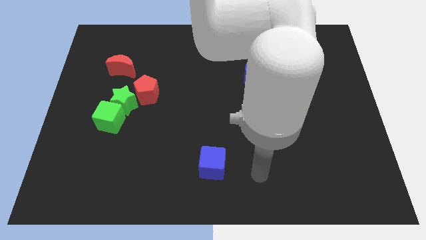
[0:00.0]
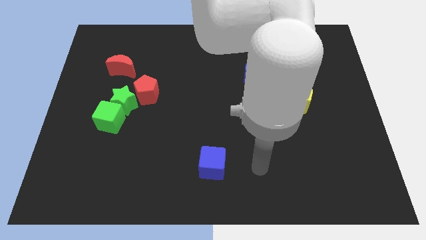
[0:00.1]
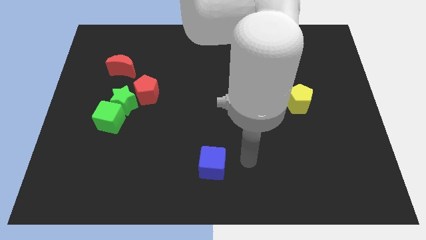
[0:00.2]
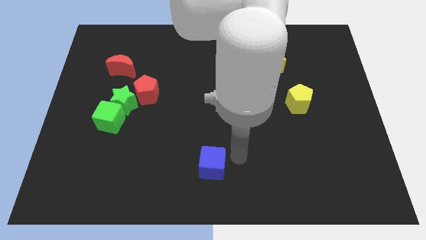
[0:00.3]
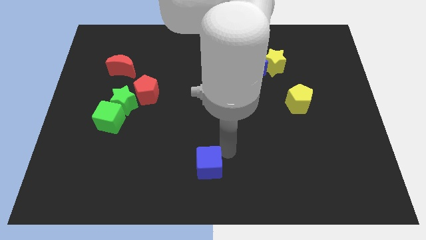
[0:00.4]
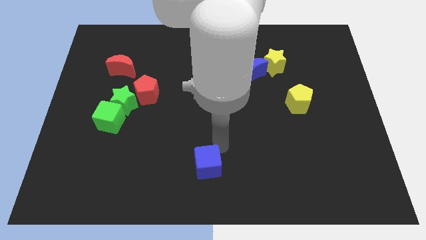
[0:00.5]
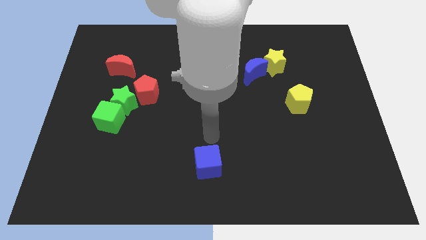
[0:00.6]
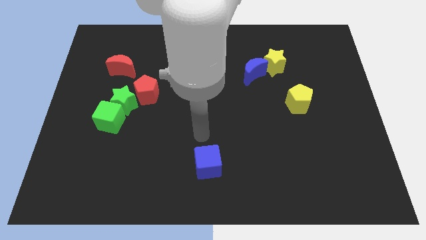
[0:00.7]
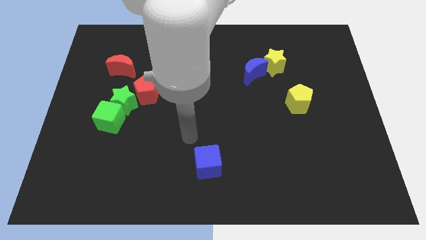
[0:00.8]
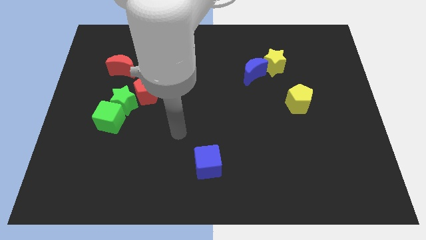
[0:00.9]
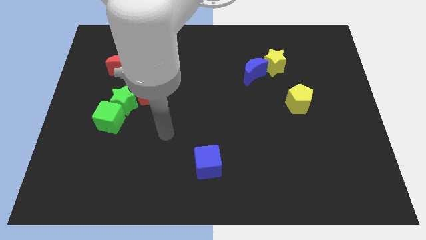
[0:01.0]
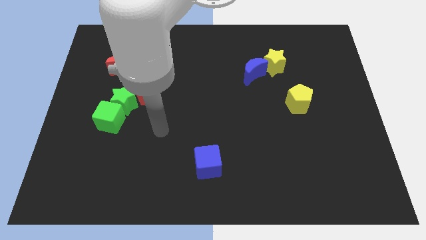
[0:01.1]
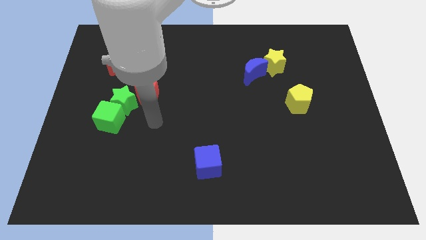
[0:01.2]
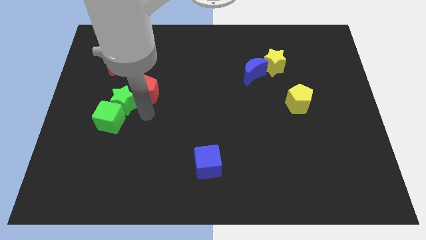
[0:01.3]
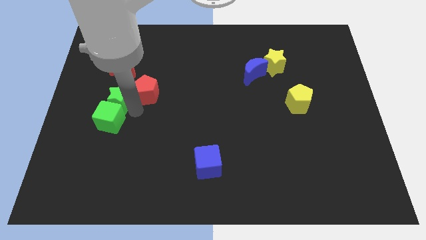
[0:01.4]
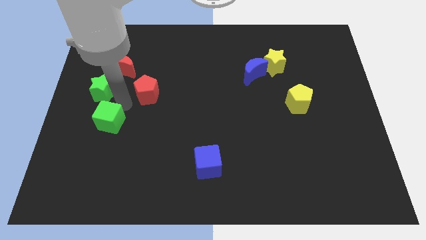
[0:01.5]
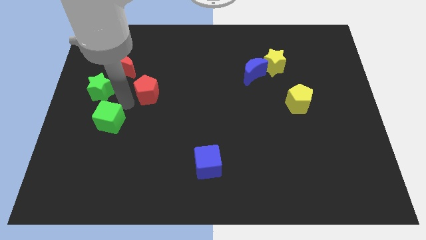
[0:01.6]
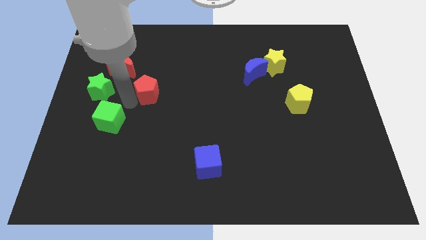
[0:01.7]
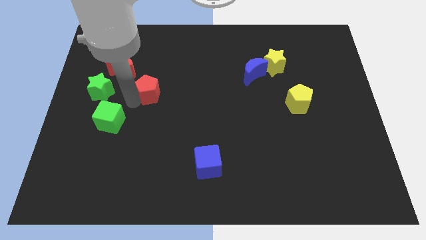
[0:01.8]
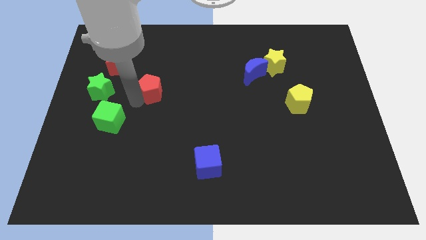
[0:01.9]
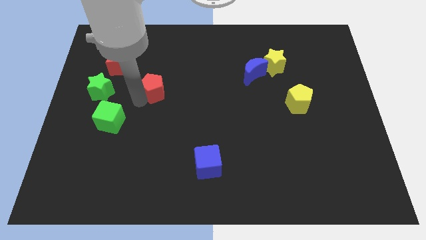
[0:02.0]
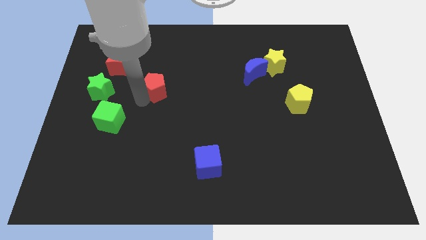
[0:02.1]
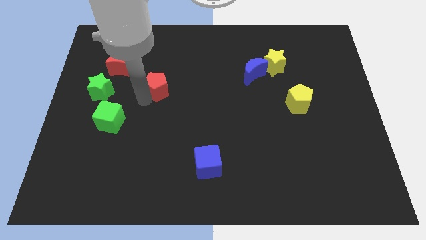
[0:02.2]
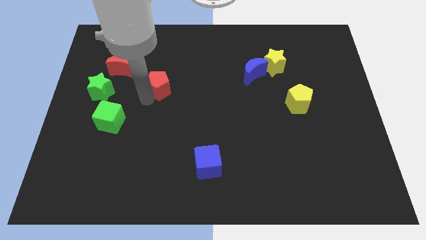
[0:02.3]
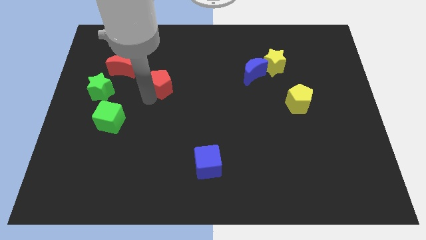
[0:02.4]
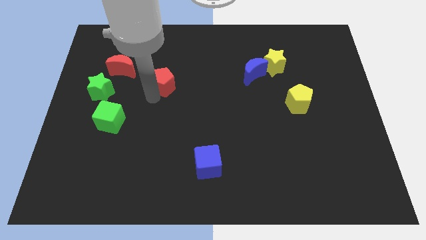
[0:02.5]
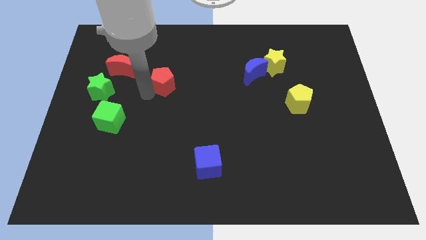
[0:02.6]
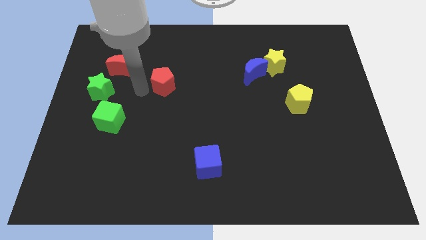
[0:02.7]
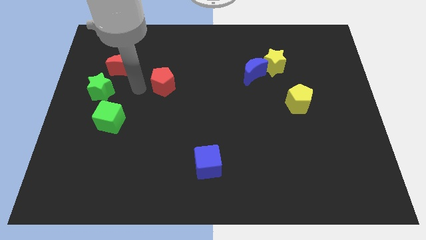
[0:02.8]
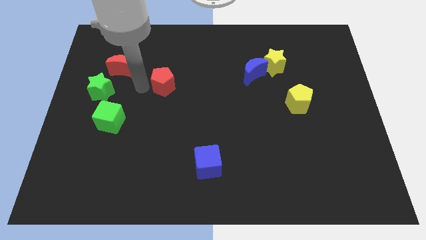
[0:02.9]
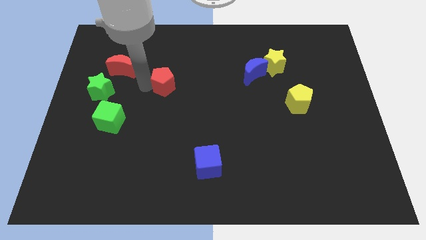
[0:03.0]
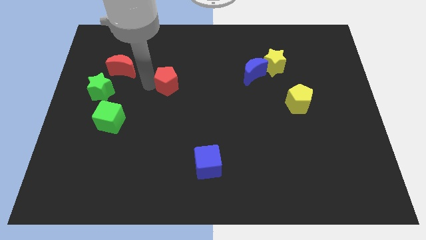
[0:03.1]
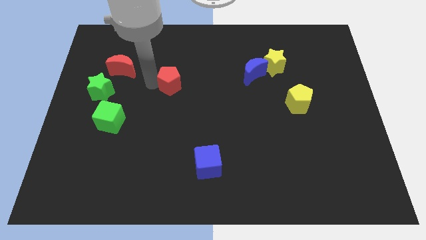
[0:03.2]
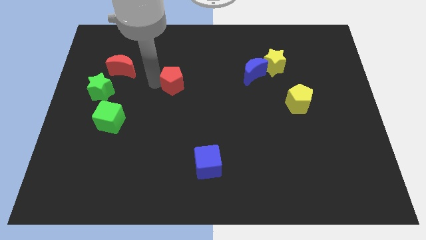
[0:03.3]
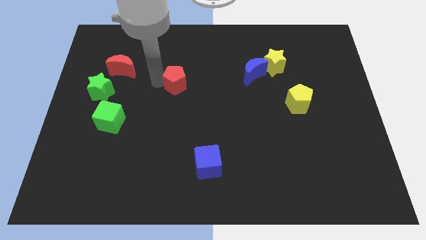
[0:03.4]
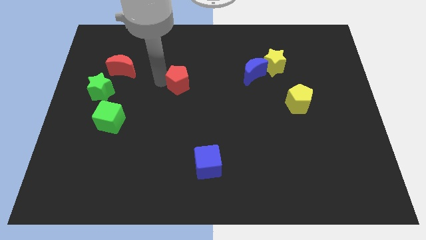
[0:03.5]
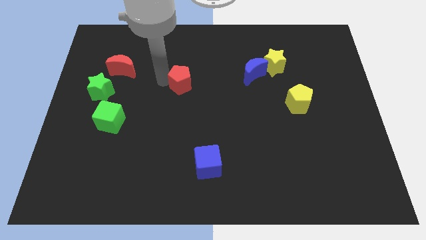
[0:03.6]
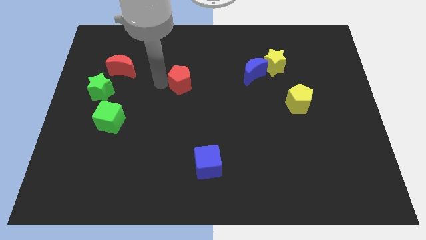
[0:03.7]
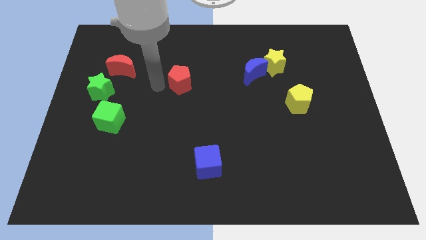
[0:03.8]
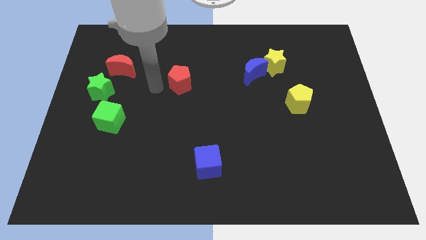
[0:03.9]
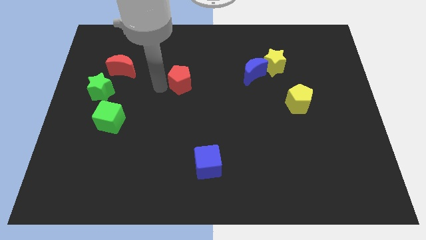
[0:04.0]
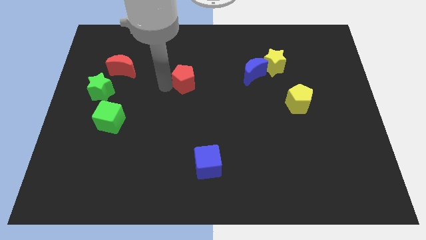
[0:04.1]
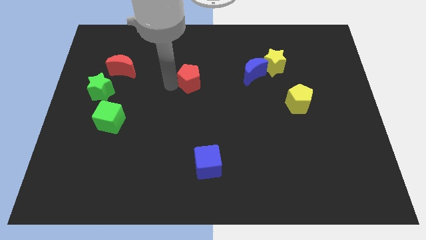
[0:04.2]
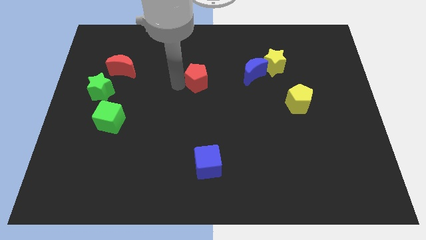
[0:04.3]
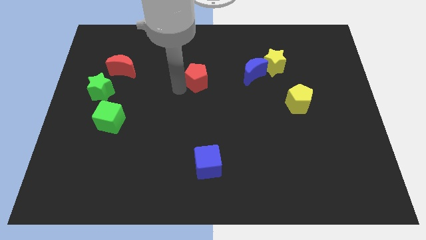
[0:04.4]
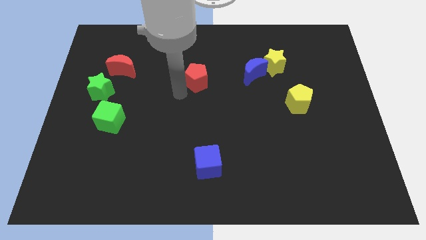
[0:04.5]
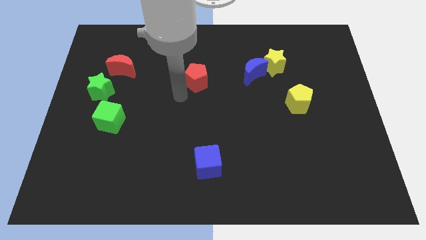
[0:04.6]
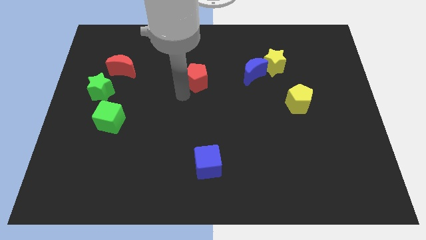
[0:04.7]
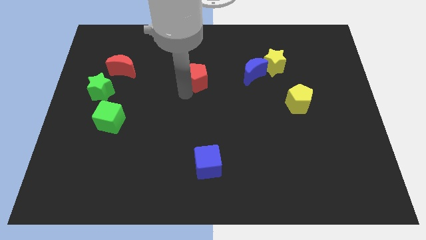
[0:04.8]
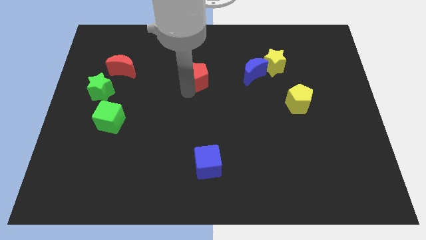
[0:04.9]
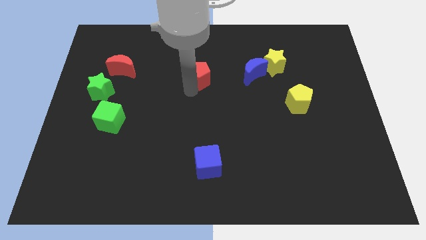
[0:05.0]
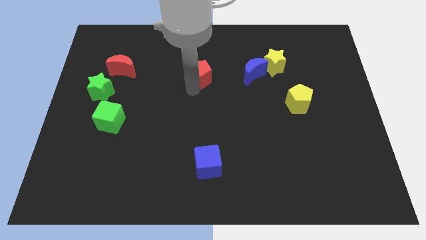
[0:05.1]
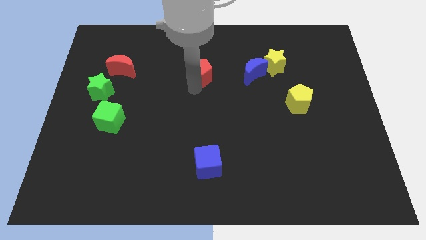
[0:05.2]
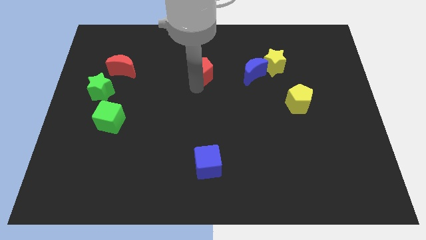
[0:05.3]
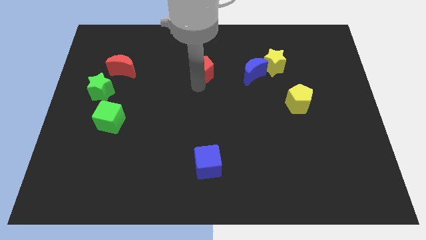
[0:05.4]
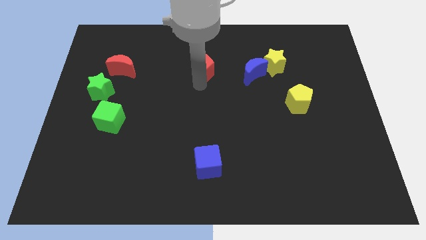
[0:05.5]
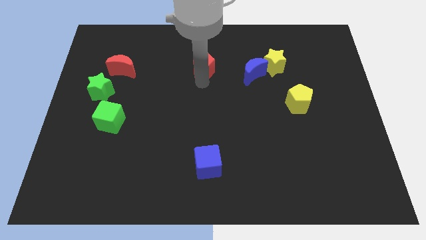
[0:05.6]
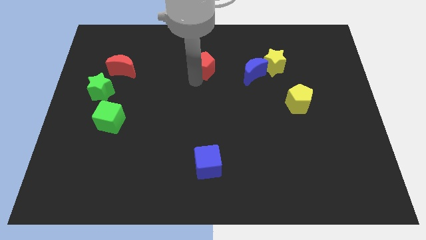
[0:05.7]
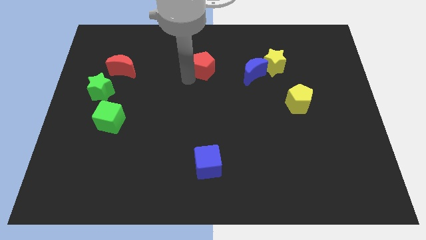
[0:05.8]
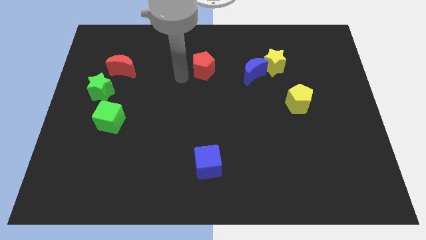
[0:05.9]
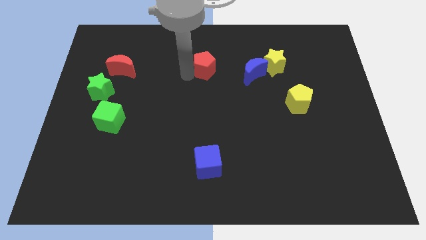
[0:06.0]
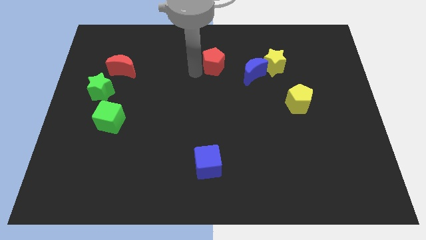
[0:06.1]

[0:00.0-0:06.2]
move the red pentagon to the top left of the blue moon

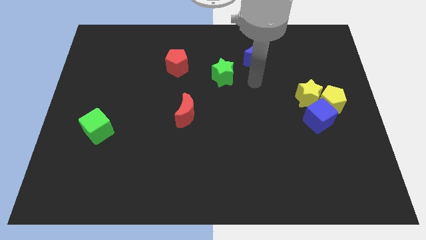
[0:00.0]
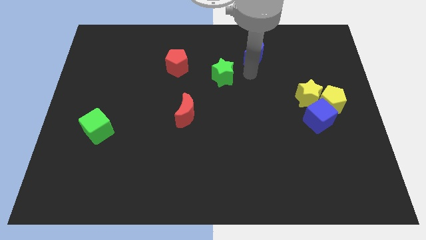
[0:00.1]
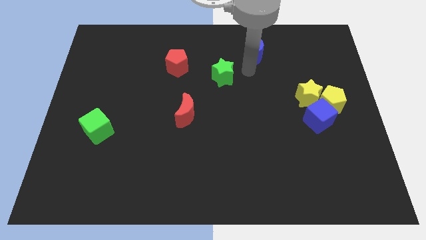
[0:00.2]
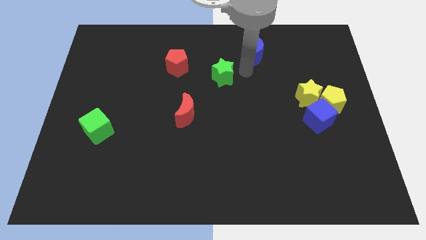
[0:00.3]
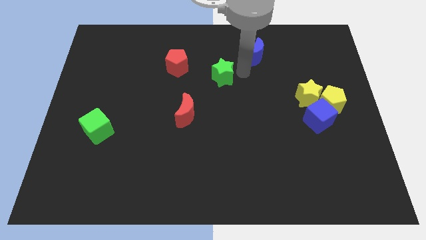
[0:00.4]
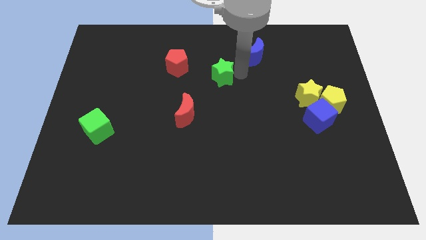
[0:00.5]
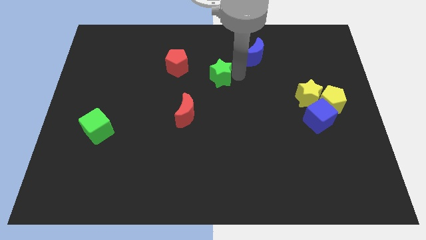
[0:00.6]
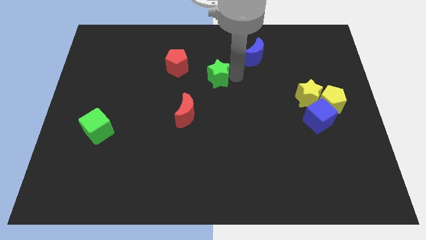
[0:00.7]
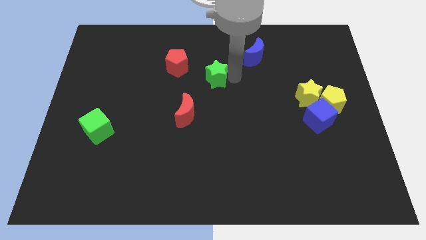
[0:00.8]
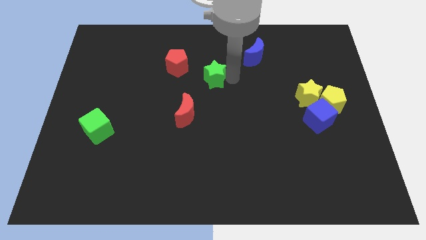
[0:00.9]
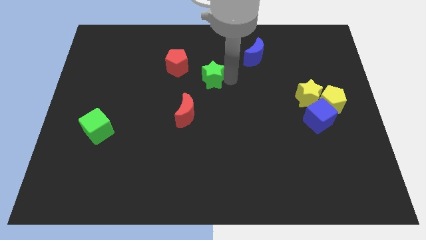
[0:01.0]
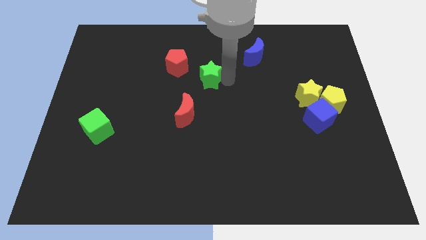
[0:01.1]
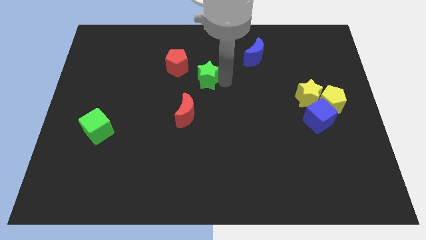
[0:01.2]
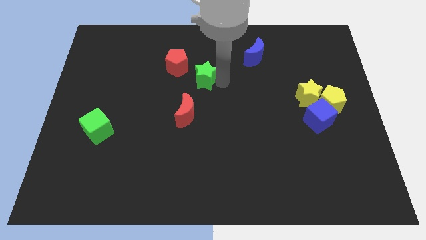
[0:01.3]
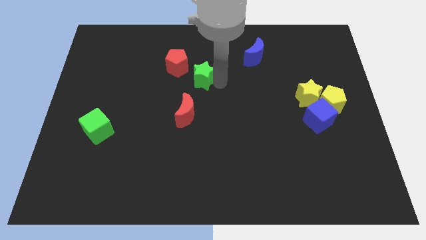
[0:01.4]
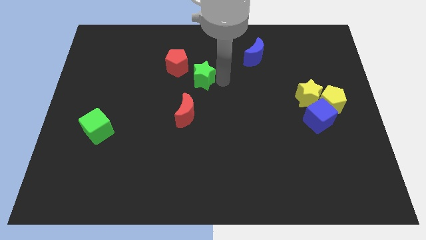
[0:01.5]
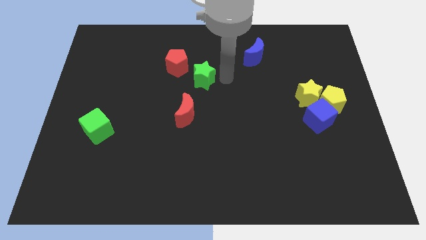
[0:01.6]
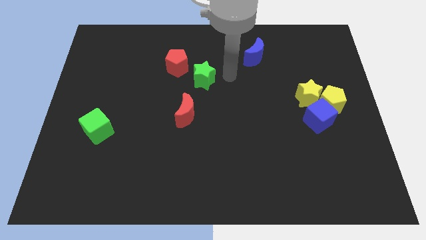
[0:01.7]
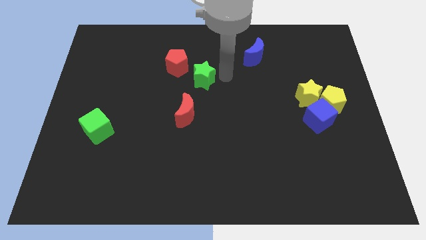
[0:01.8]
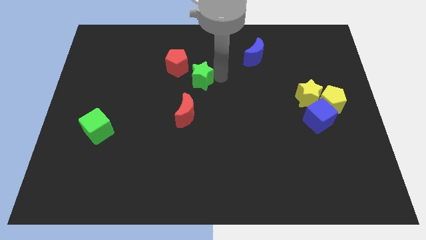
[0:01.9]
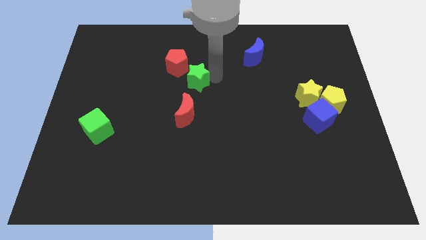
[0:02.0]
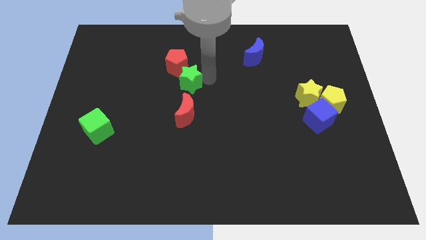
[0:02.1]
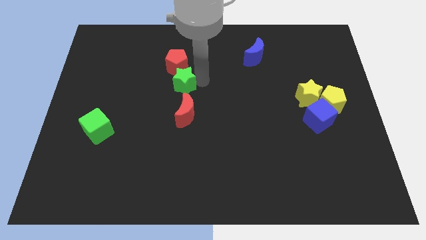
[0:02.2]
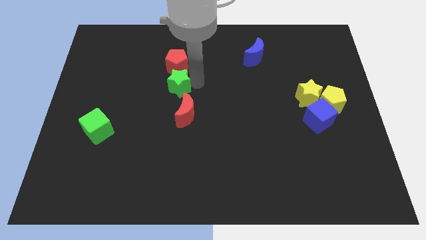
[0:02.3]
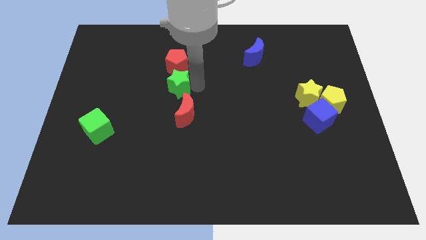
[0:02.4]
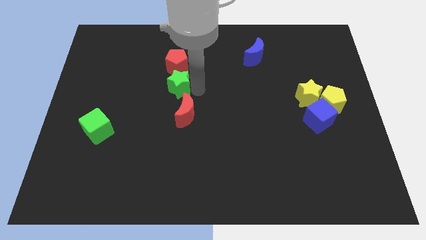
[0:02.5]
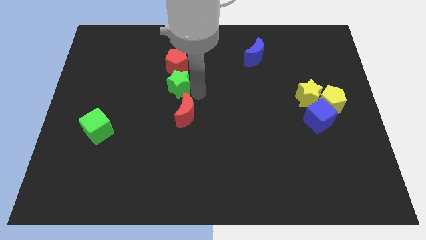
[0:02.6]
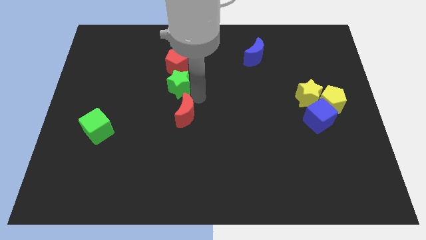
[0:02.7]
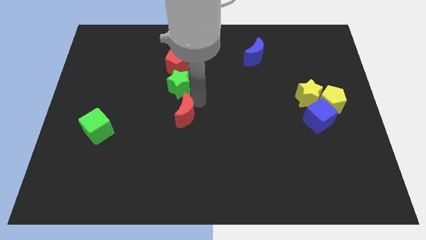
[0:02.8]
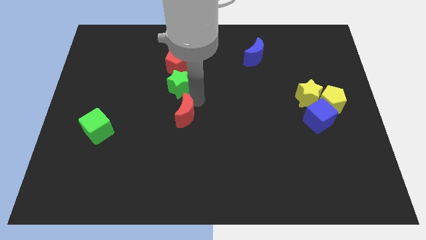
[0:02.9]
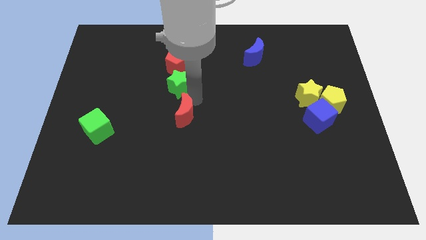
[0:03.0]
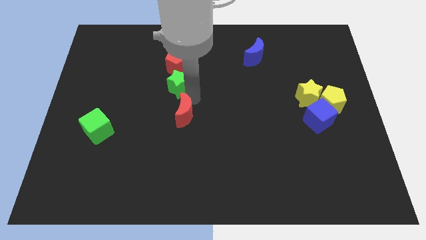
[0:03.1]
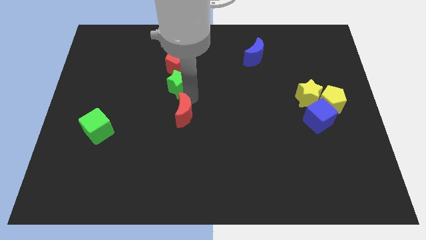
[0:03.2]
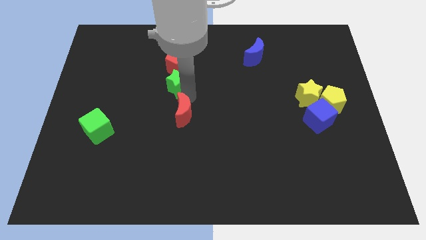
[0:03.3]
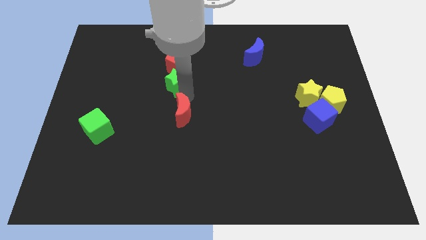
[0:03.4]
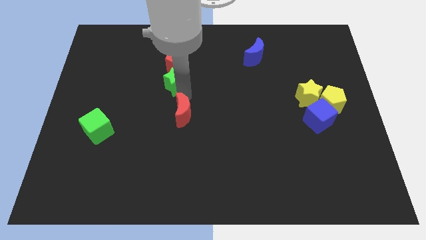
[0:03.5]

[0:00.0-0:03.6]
put the green star diagonally down and to the left of the red pentagon
